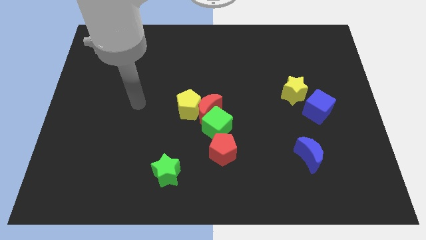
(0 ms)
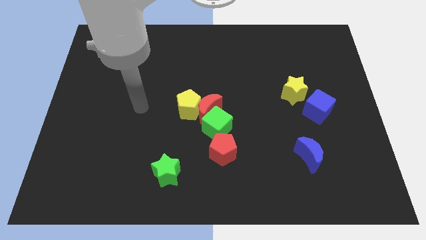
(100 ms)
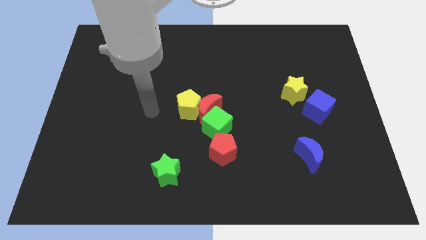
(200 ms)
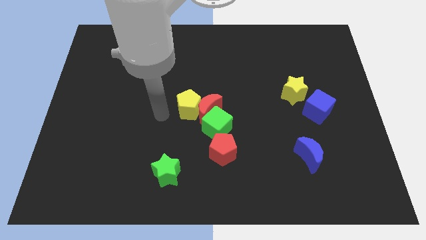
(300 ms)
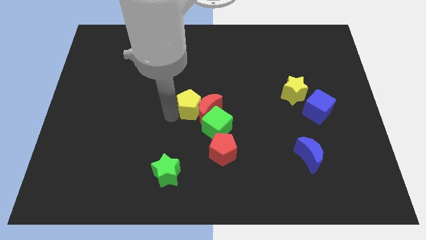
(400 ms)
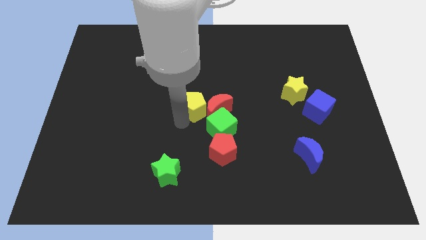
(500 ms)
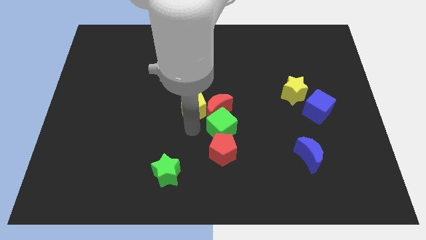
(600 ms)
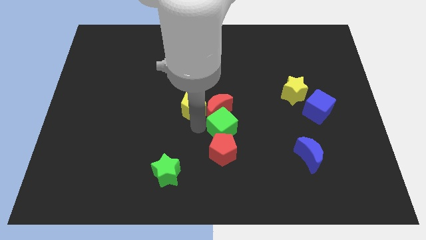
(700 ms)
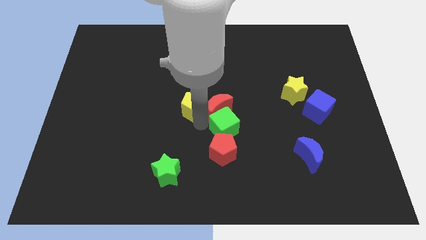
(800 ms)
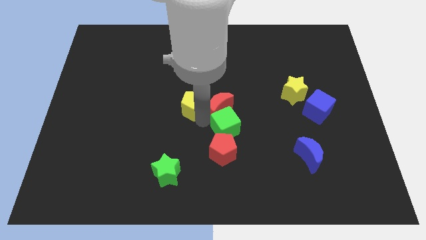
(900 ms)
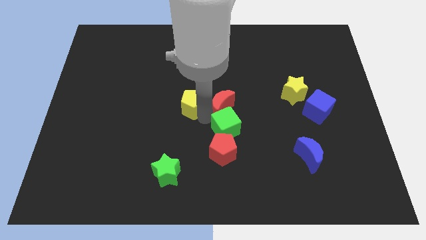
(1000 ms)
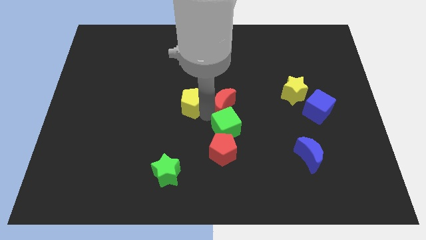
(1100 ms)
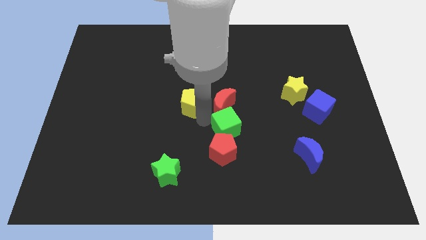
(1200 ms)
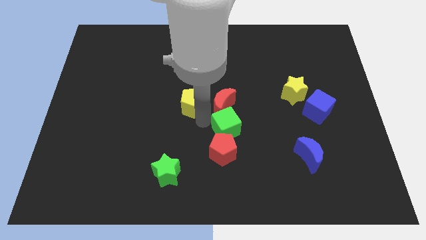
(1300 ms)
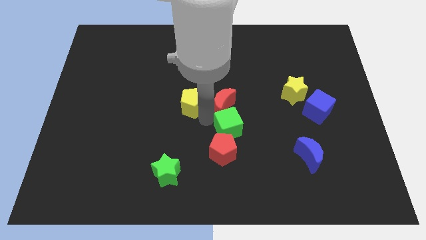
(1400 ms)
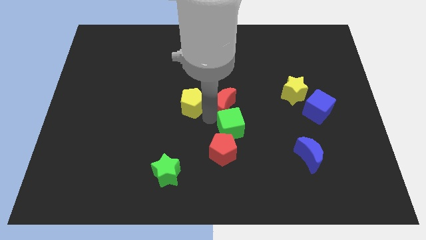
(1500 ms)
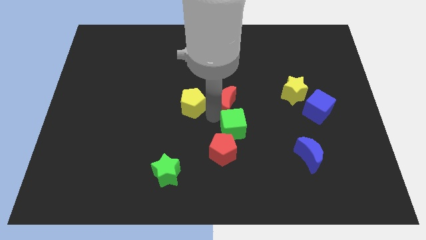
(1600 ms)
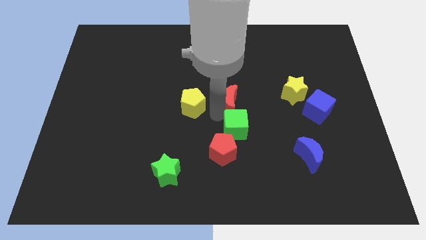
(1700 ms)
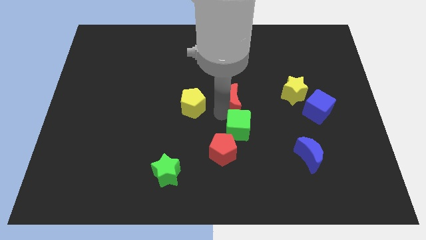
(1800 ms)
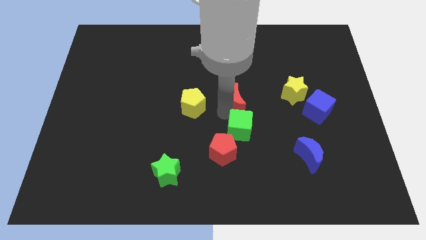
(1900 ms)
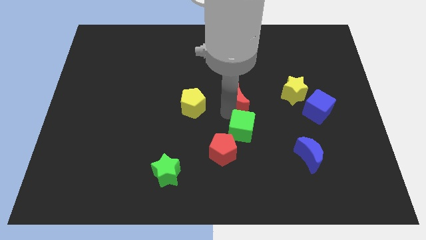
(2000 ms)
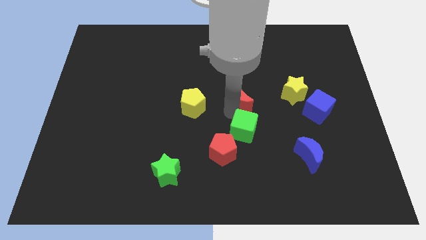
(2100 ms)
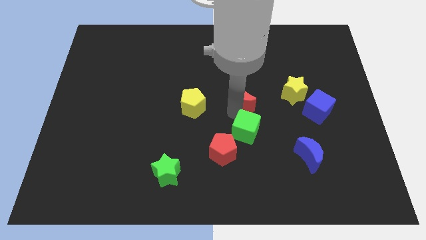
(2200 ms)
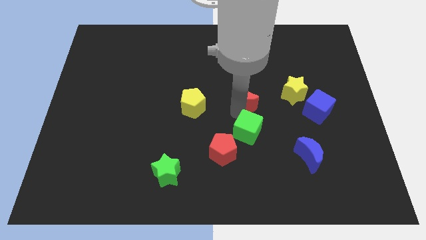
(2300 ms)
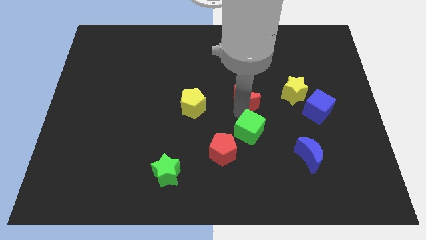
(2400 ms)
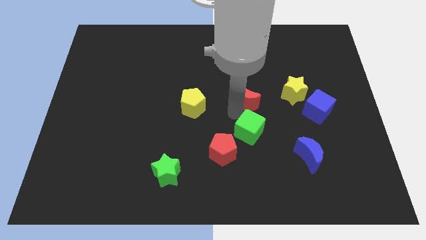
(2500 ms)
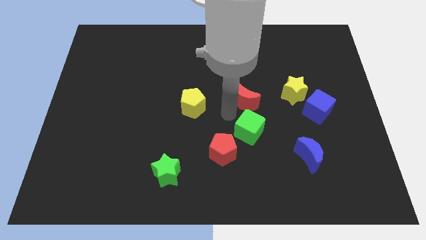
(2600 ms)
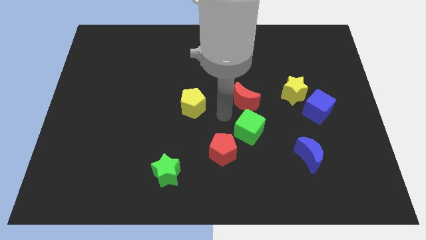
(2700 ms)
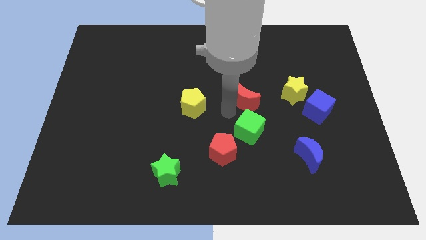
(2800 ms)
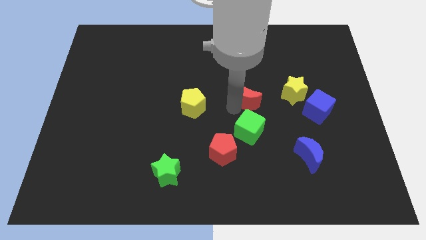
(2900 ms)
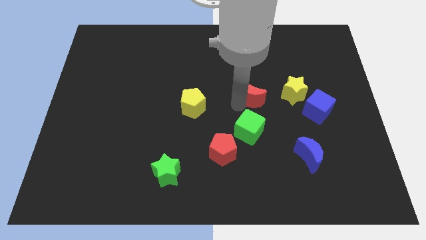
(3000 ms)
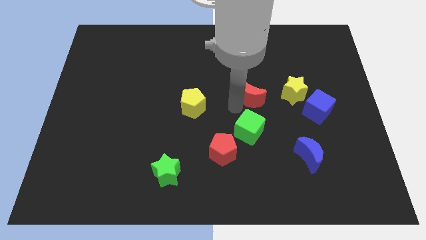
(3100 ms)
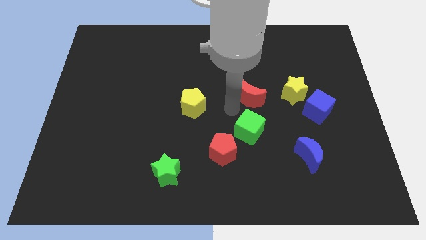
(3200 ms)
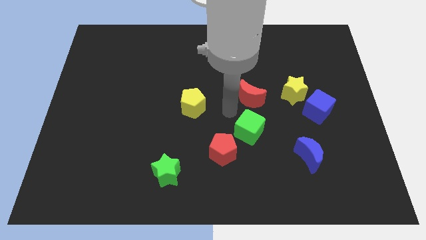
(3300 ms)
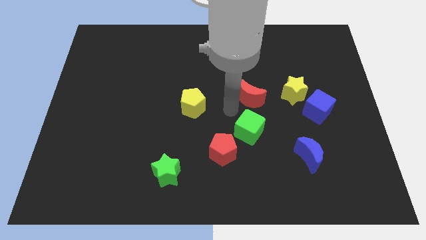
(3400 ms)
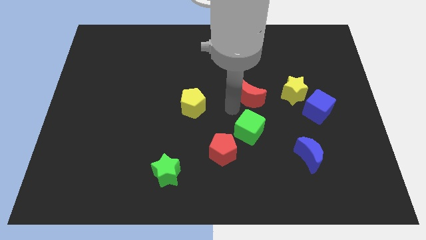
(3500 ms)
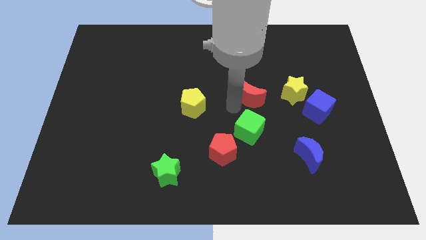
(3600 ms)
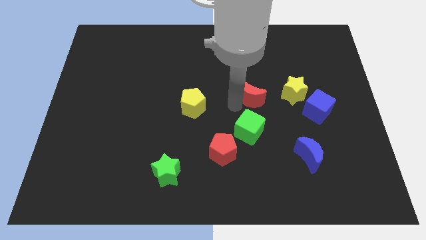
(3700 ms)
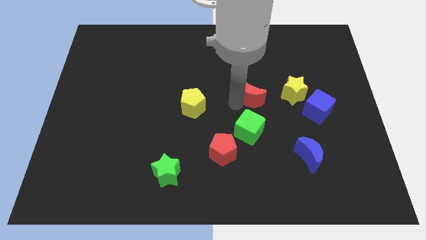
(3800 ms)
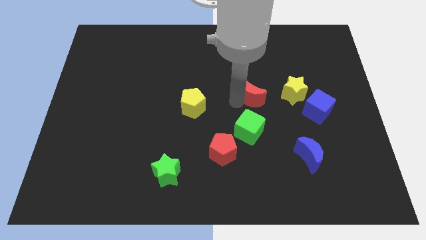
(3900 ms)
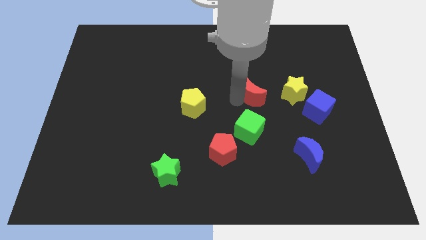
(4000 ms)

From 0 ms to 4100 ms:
pull the red moon apart from the yellow pentagon and green cube

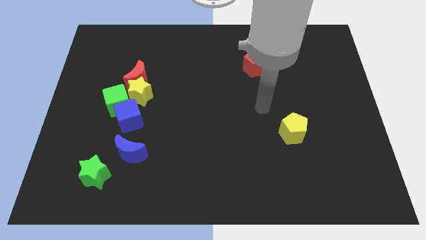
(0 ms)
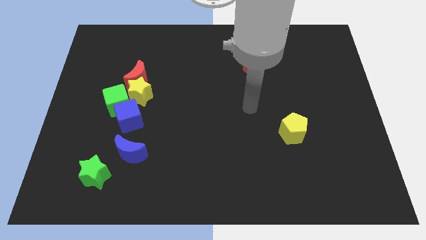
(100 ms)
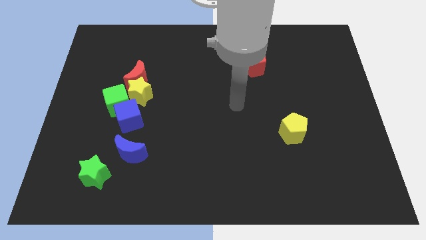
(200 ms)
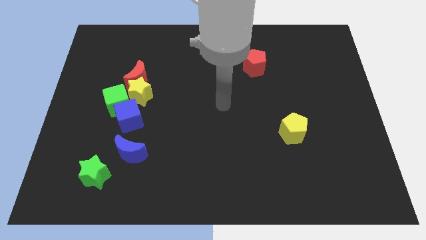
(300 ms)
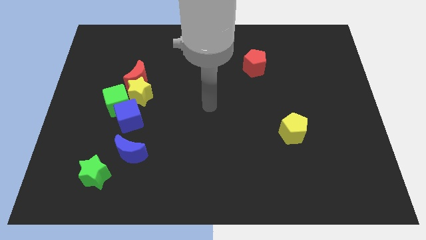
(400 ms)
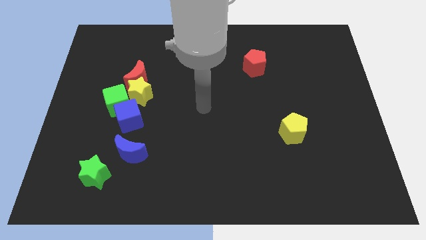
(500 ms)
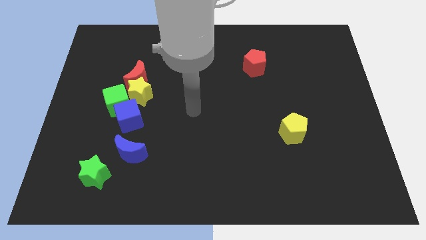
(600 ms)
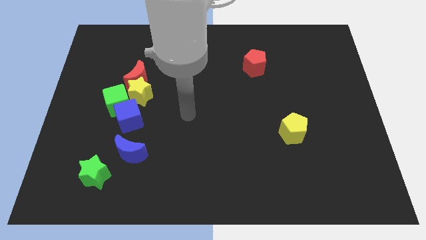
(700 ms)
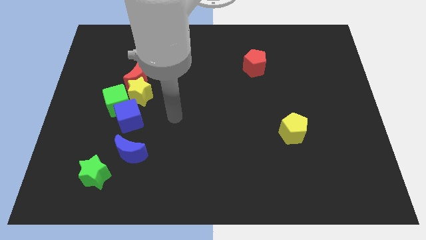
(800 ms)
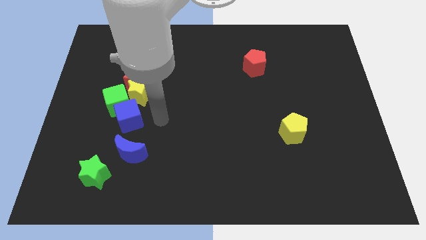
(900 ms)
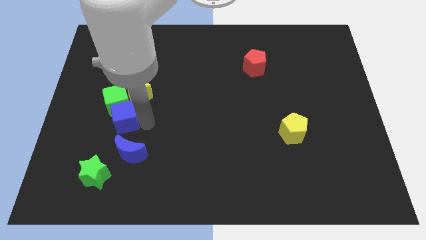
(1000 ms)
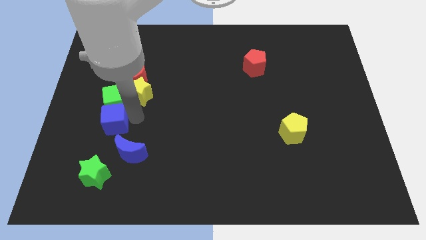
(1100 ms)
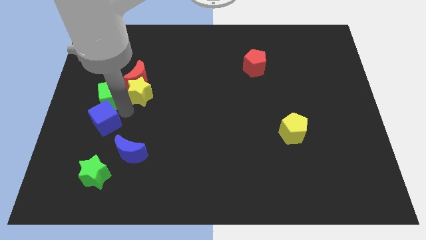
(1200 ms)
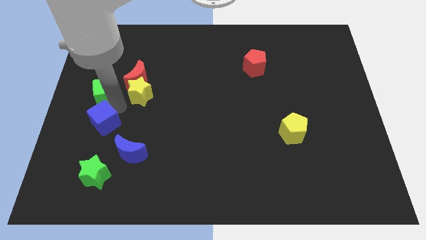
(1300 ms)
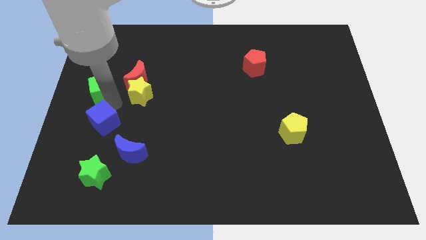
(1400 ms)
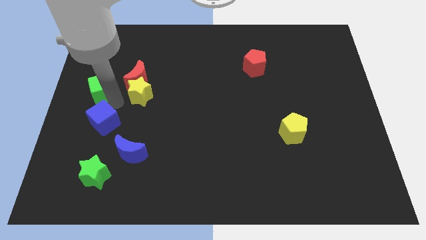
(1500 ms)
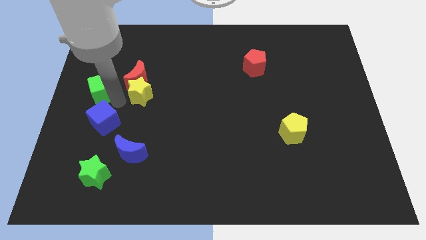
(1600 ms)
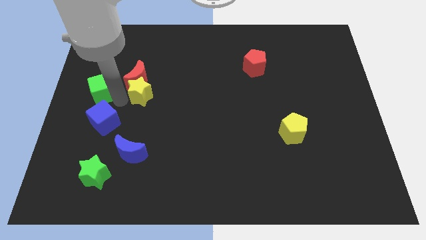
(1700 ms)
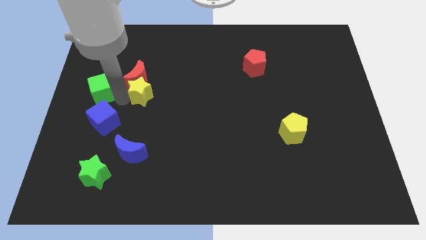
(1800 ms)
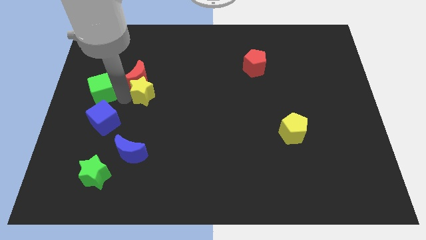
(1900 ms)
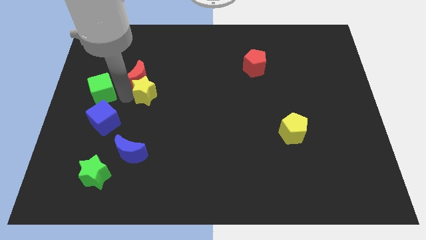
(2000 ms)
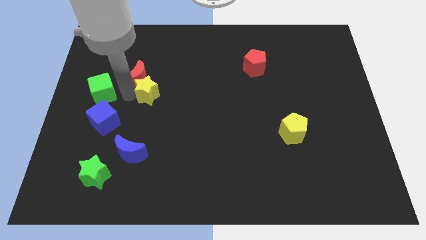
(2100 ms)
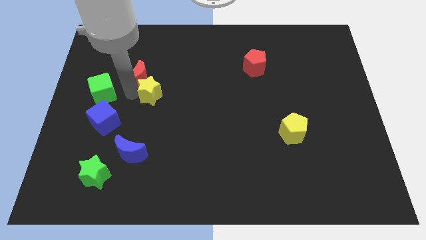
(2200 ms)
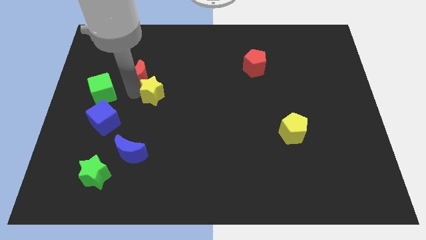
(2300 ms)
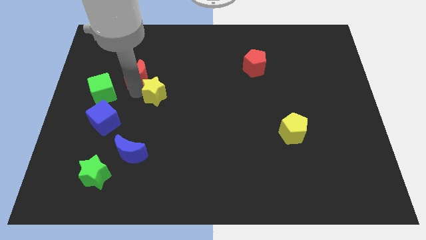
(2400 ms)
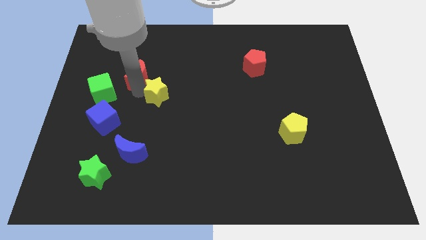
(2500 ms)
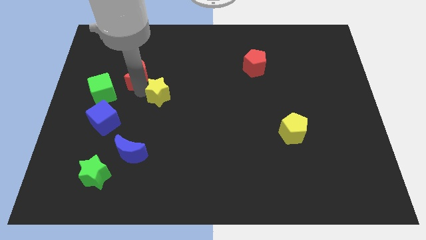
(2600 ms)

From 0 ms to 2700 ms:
pull the yellow star apart from the clump

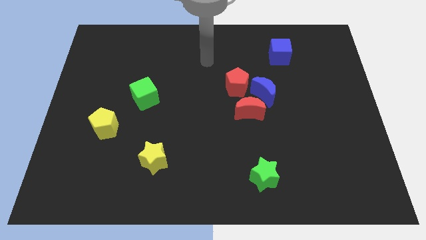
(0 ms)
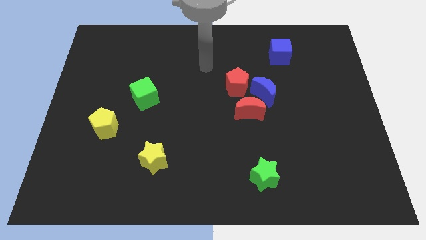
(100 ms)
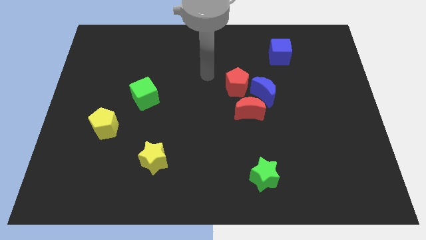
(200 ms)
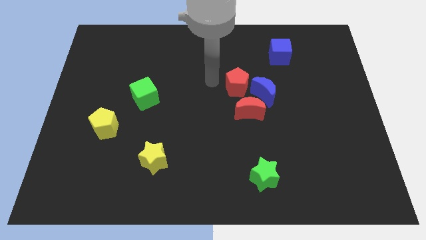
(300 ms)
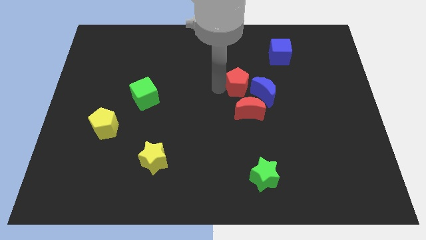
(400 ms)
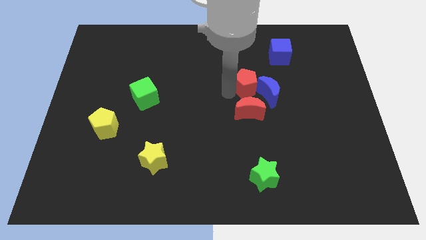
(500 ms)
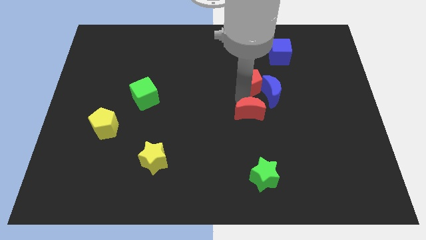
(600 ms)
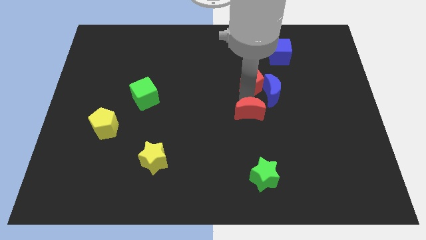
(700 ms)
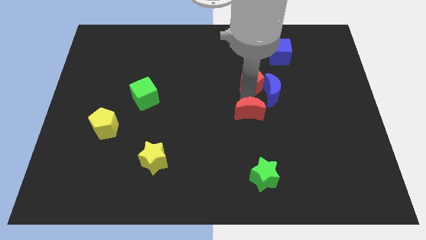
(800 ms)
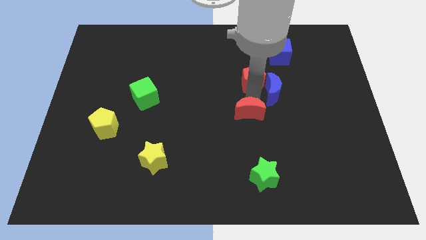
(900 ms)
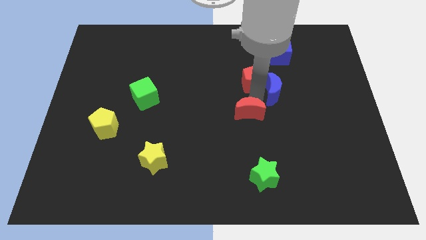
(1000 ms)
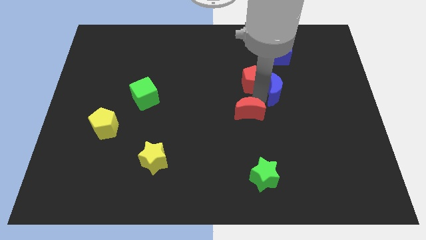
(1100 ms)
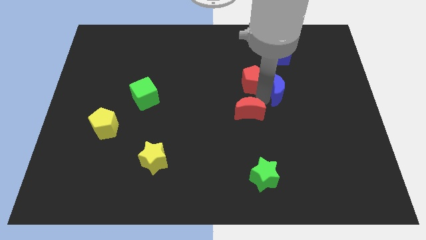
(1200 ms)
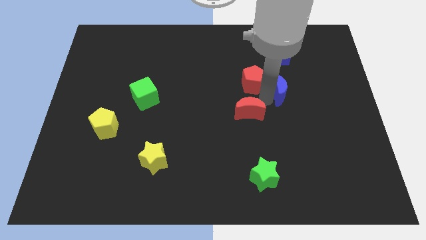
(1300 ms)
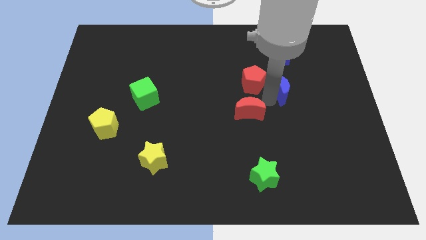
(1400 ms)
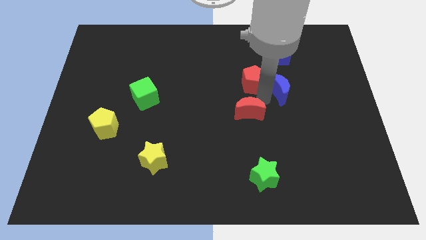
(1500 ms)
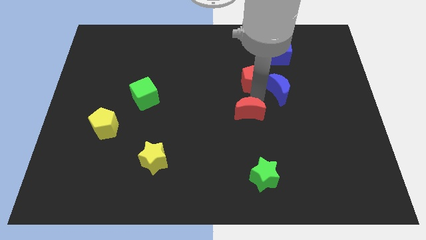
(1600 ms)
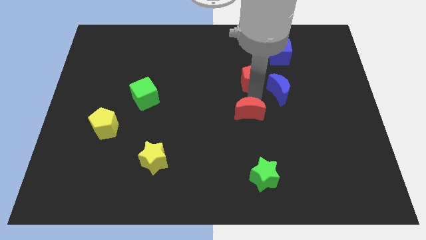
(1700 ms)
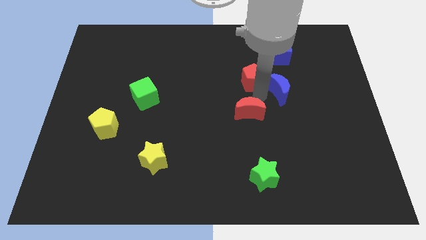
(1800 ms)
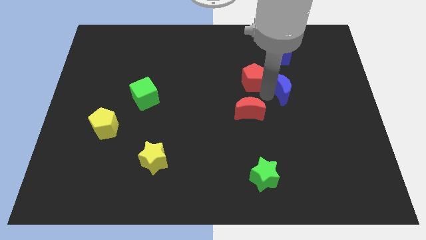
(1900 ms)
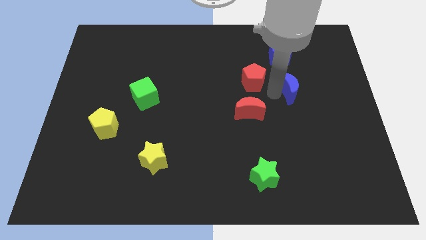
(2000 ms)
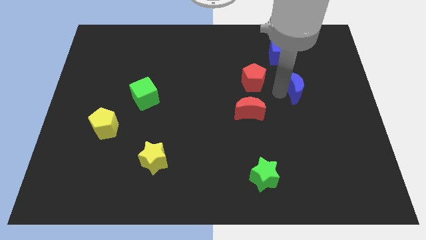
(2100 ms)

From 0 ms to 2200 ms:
separate the blue moon from the red moon and red pentagon

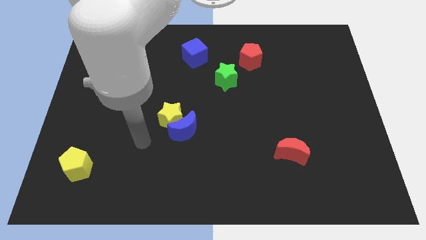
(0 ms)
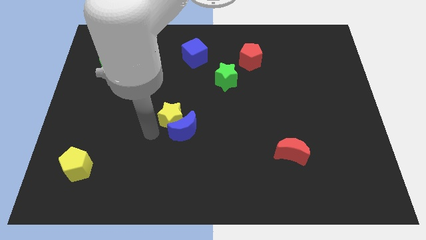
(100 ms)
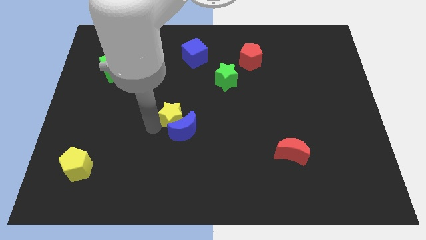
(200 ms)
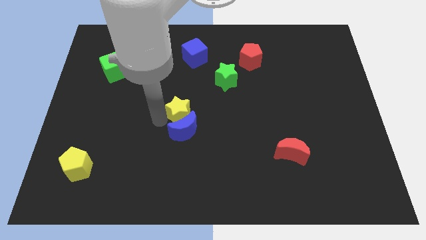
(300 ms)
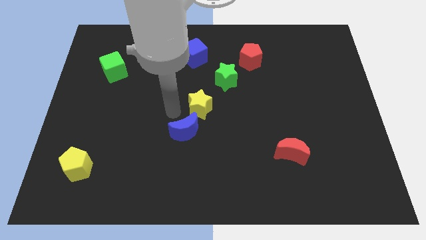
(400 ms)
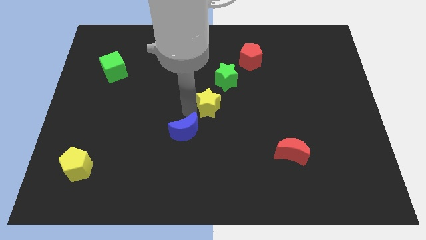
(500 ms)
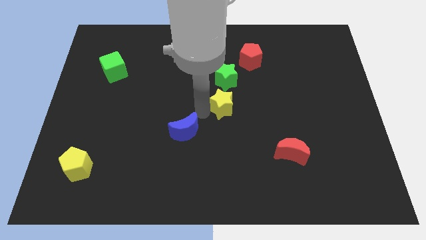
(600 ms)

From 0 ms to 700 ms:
pull the blue moon apart from the yellow star
